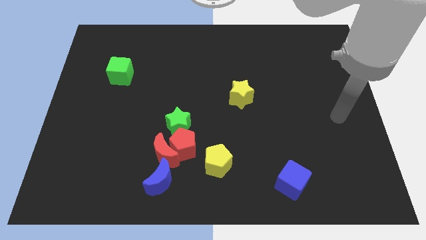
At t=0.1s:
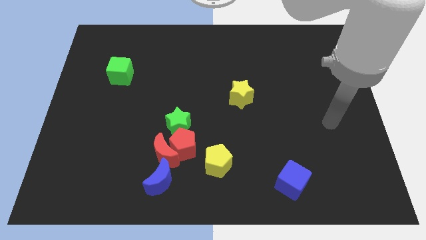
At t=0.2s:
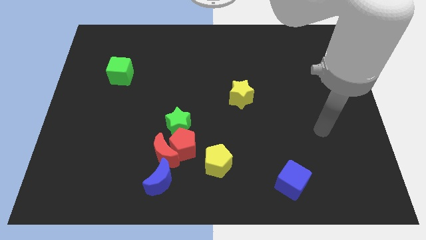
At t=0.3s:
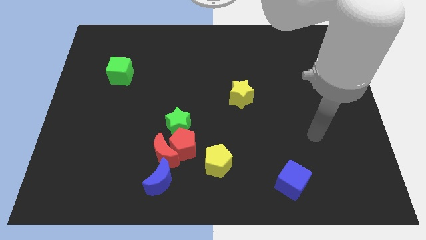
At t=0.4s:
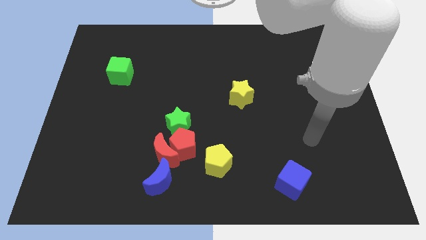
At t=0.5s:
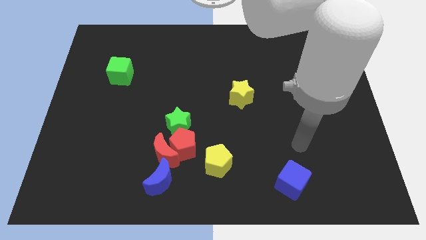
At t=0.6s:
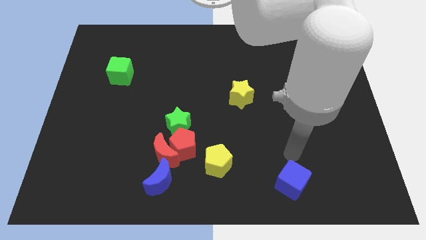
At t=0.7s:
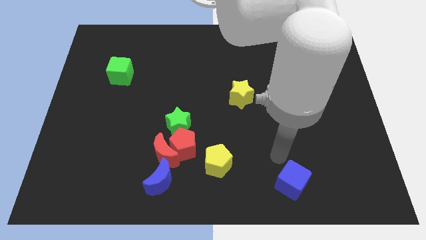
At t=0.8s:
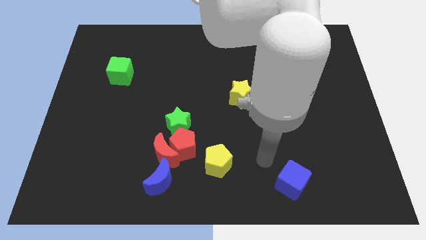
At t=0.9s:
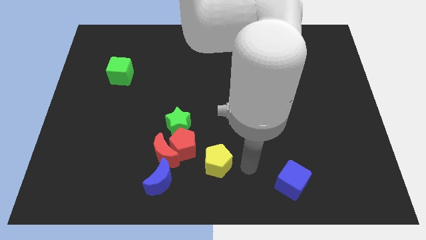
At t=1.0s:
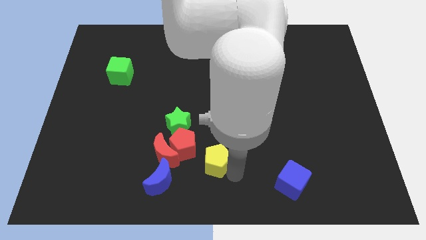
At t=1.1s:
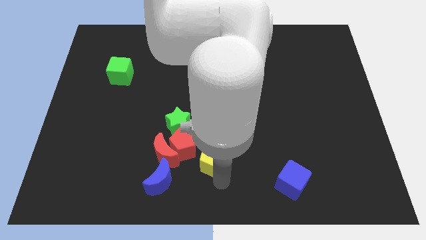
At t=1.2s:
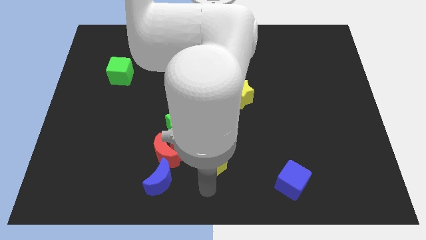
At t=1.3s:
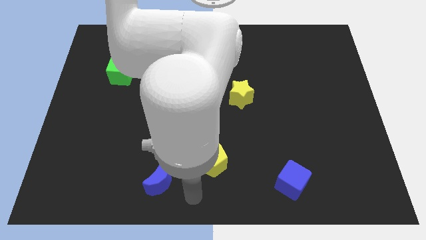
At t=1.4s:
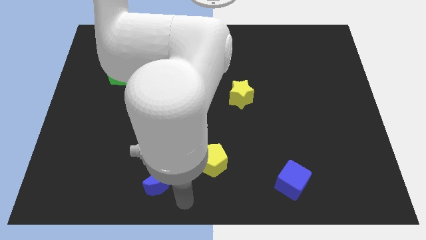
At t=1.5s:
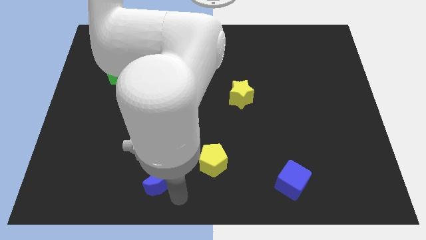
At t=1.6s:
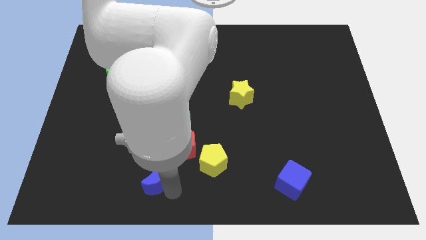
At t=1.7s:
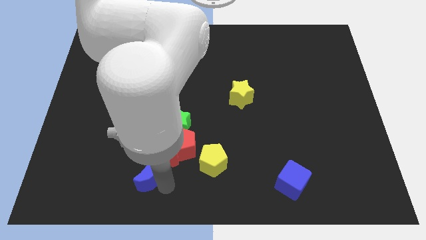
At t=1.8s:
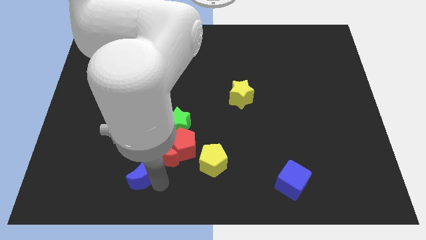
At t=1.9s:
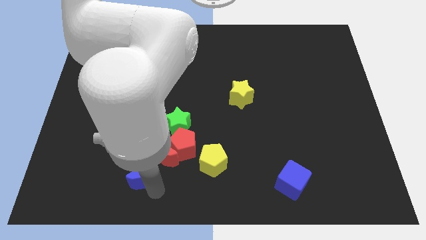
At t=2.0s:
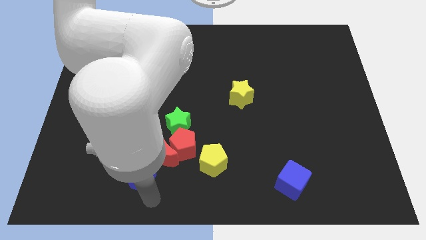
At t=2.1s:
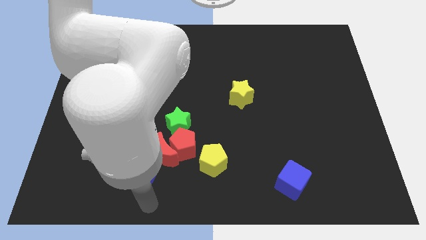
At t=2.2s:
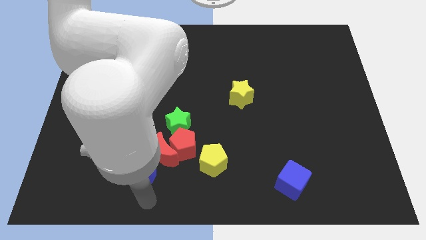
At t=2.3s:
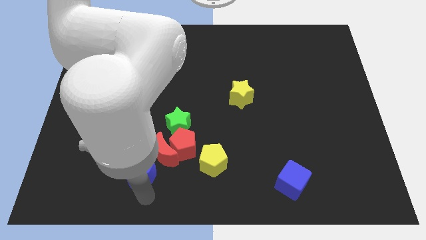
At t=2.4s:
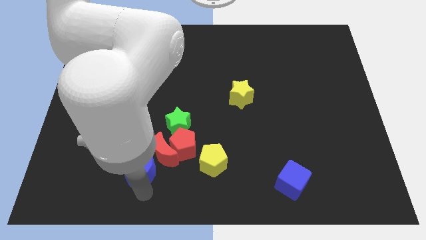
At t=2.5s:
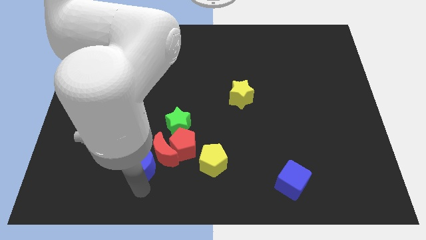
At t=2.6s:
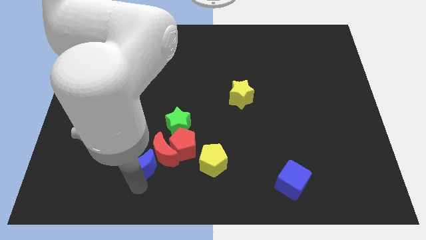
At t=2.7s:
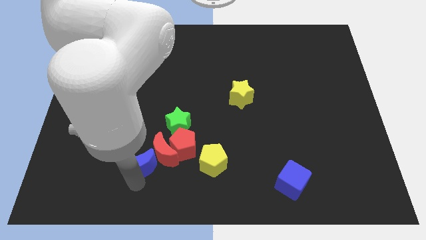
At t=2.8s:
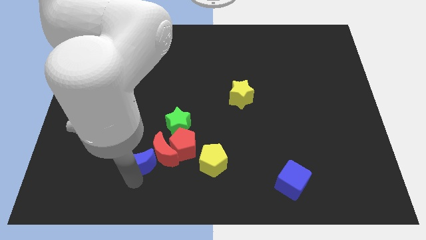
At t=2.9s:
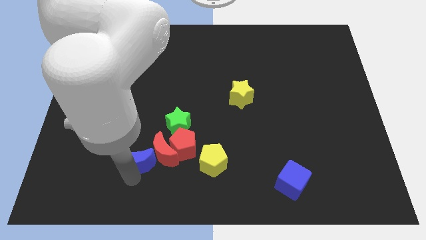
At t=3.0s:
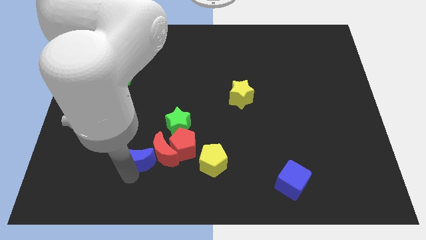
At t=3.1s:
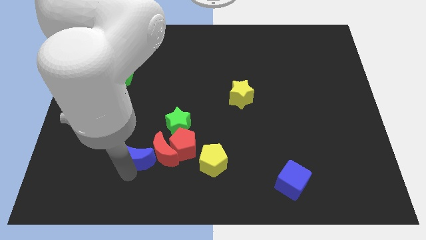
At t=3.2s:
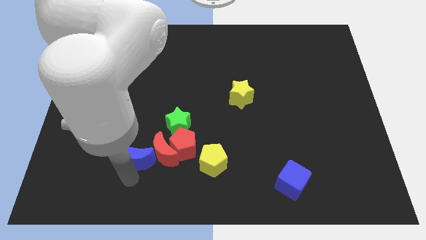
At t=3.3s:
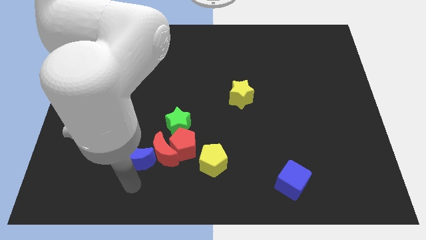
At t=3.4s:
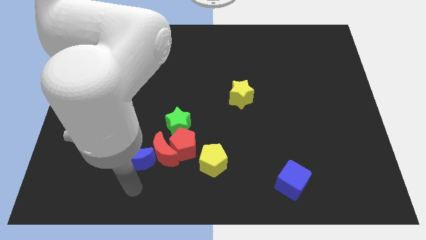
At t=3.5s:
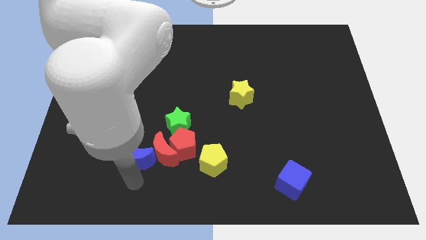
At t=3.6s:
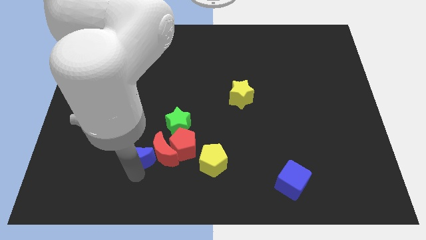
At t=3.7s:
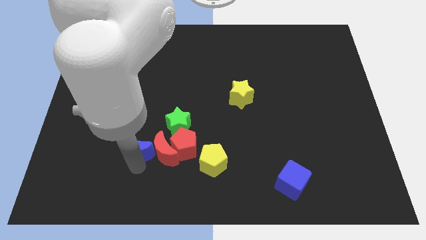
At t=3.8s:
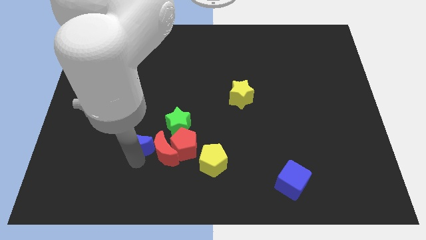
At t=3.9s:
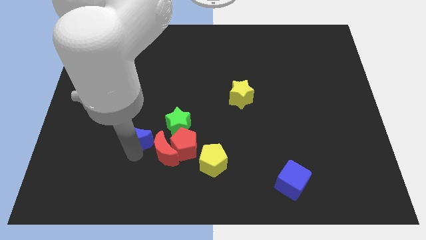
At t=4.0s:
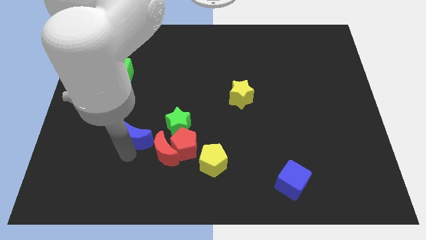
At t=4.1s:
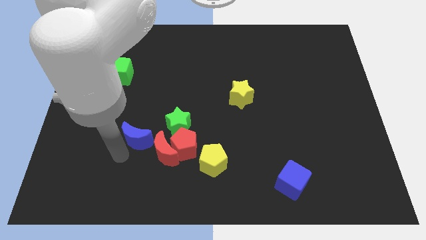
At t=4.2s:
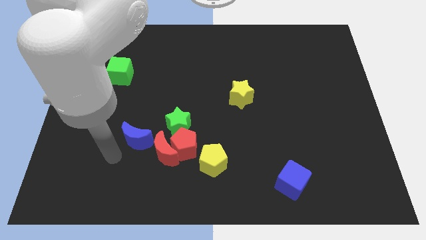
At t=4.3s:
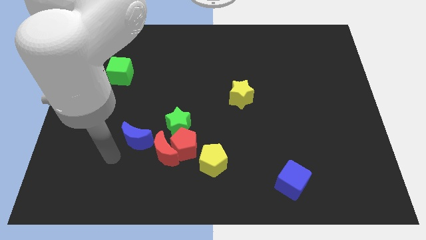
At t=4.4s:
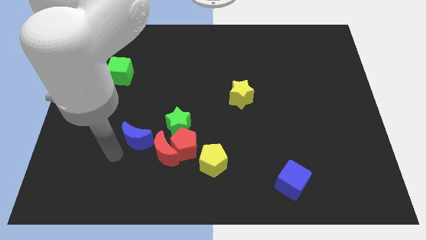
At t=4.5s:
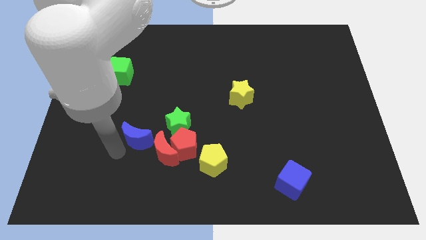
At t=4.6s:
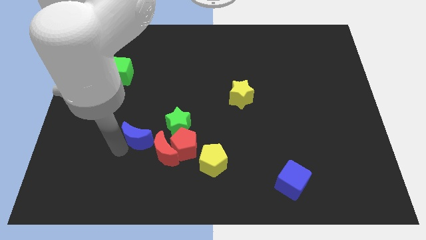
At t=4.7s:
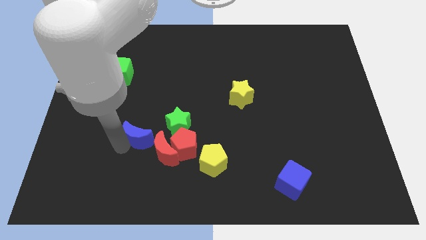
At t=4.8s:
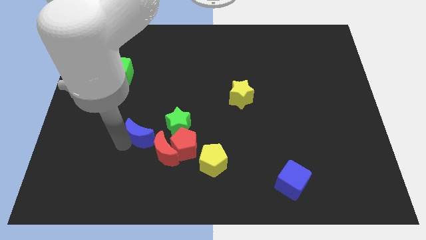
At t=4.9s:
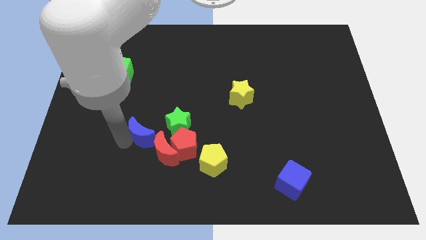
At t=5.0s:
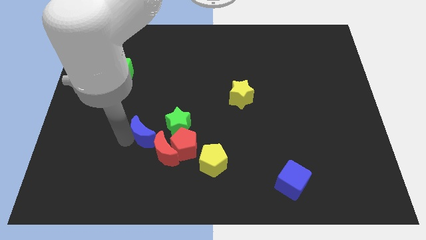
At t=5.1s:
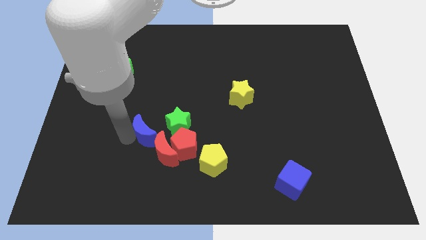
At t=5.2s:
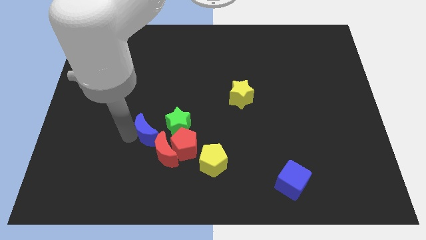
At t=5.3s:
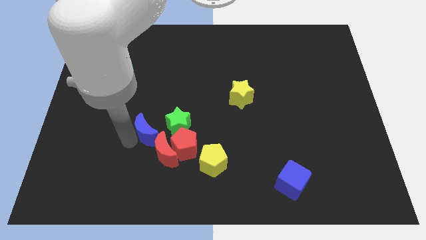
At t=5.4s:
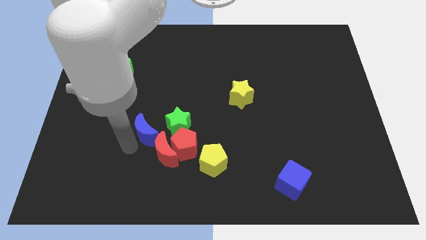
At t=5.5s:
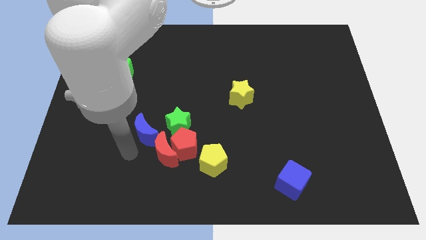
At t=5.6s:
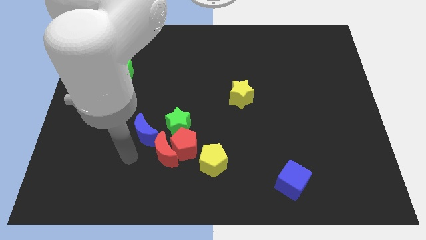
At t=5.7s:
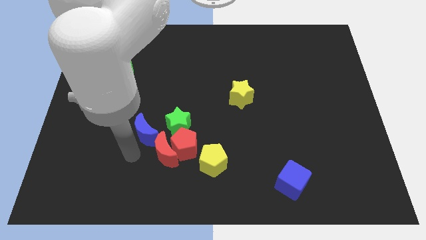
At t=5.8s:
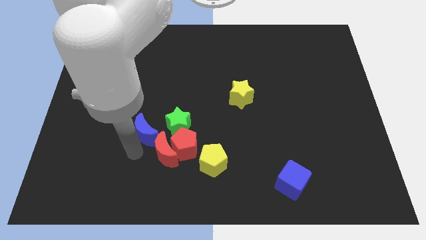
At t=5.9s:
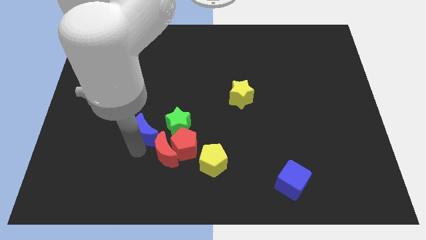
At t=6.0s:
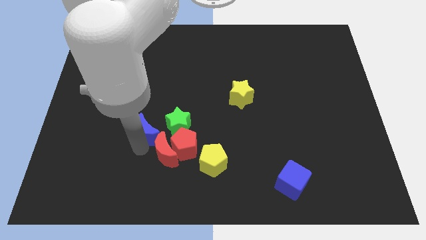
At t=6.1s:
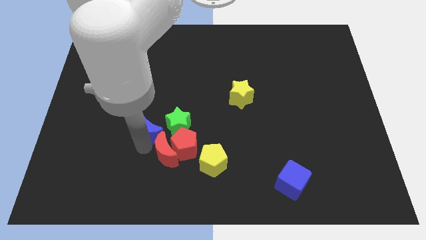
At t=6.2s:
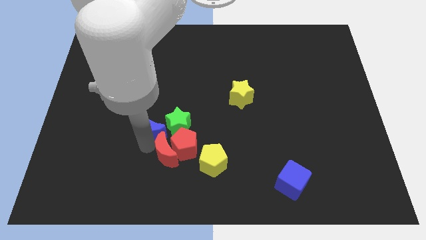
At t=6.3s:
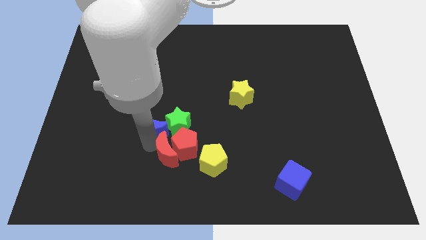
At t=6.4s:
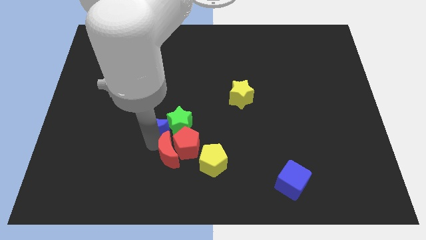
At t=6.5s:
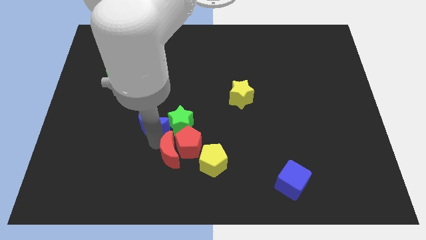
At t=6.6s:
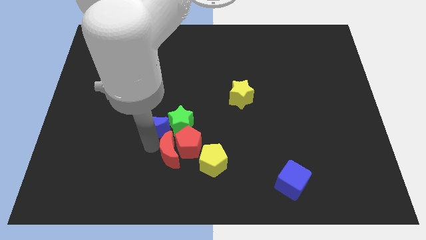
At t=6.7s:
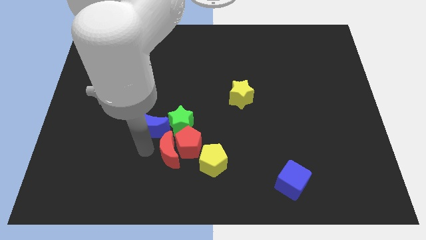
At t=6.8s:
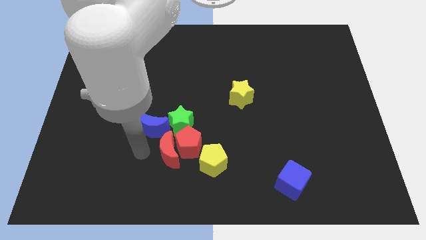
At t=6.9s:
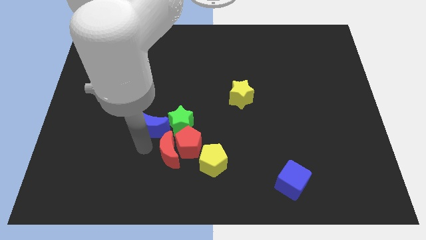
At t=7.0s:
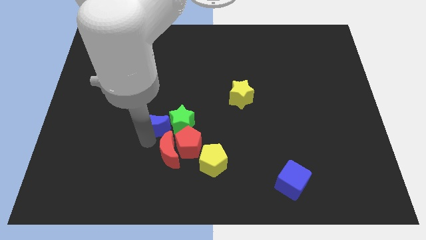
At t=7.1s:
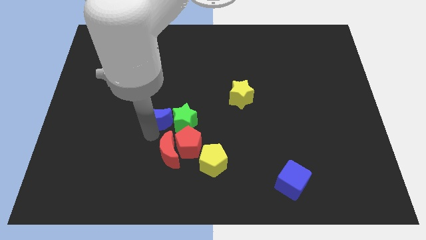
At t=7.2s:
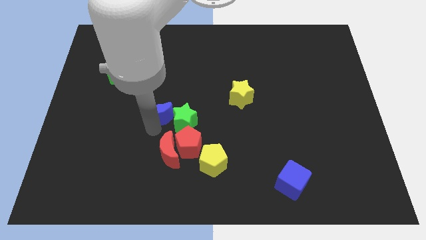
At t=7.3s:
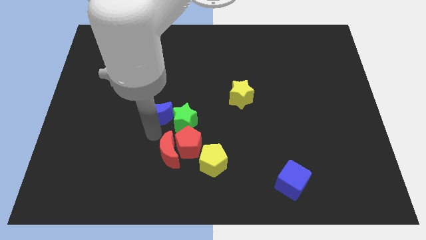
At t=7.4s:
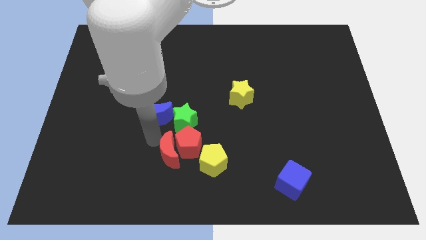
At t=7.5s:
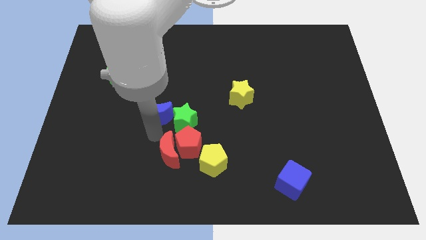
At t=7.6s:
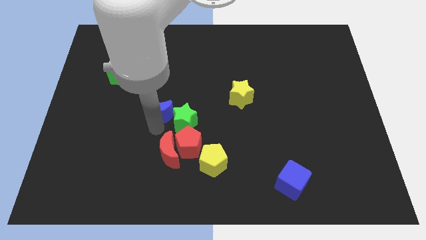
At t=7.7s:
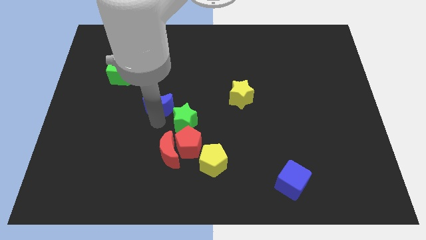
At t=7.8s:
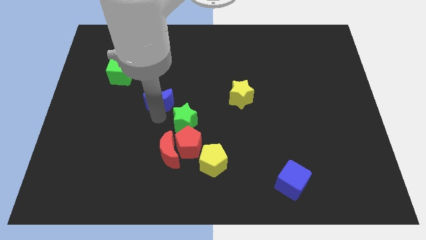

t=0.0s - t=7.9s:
push the blue moon up
